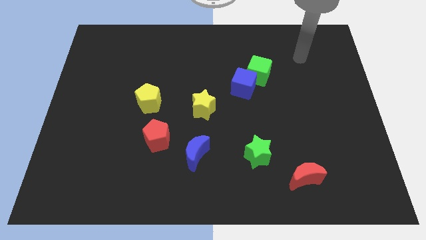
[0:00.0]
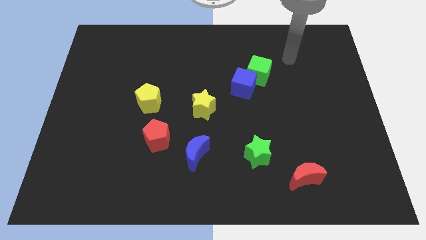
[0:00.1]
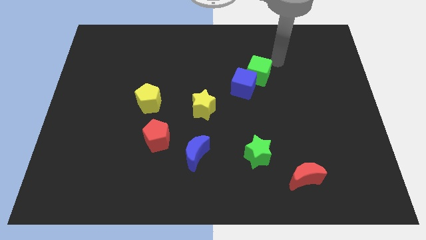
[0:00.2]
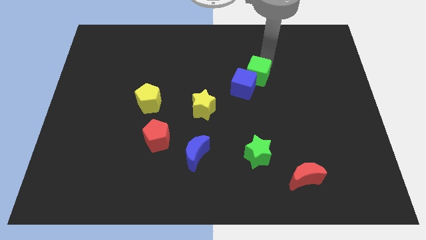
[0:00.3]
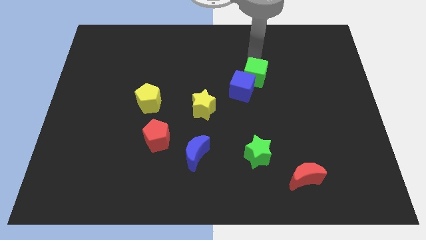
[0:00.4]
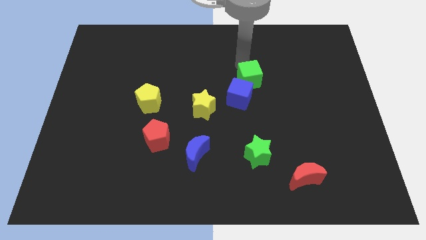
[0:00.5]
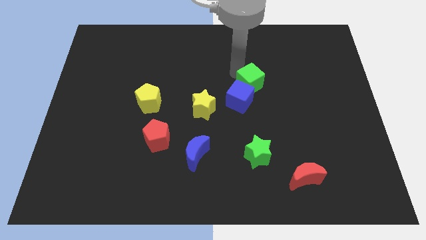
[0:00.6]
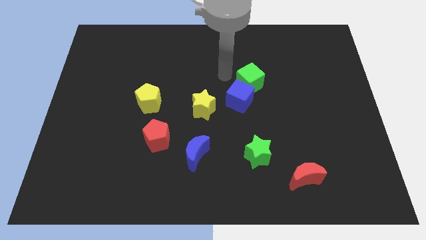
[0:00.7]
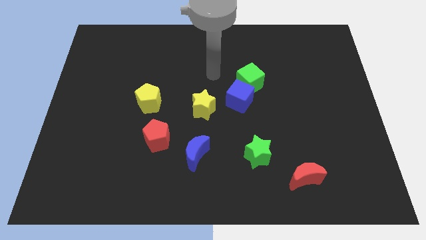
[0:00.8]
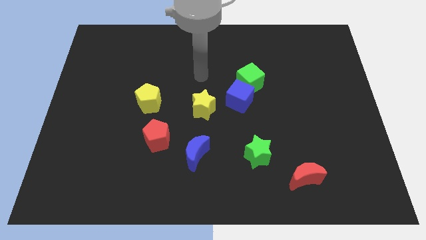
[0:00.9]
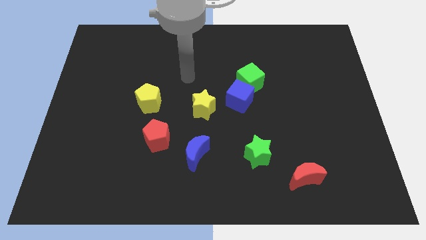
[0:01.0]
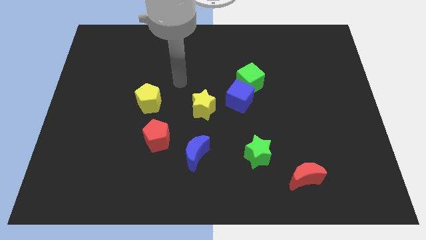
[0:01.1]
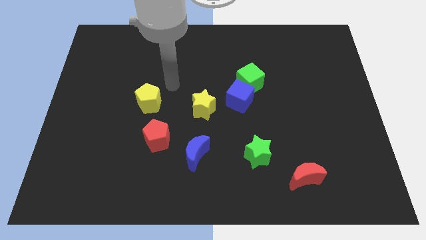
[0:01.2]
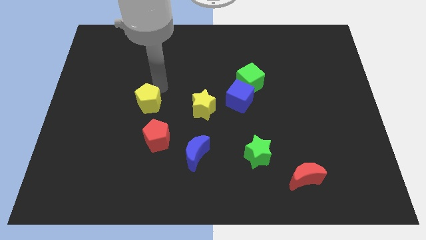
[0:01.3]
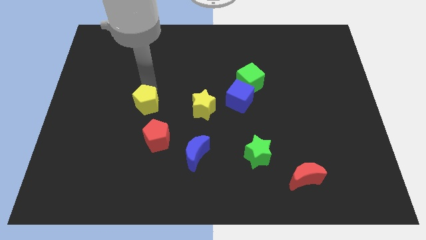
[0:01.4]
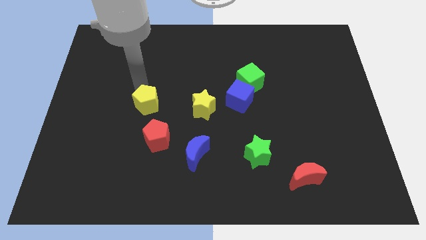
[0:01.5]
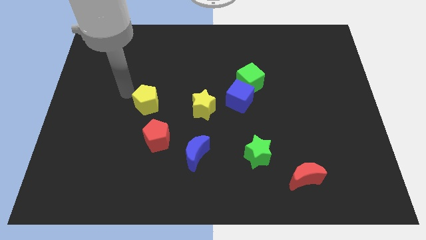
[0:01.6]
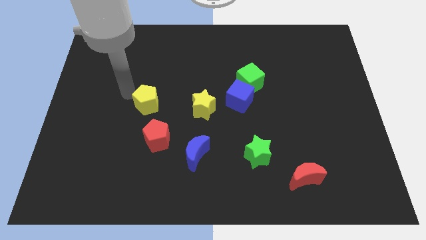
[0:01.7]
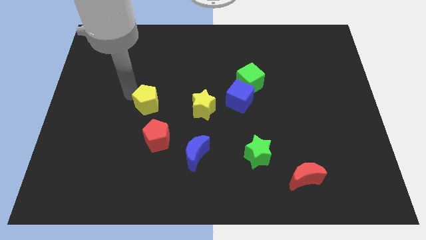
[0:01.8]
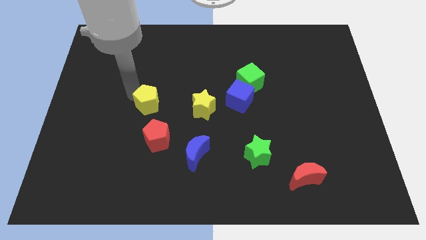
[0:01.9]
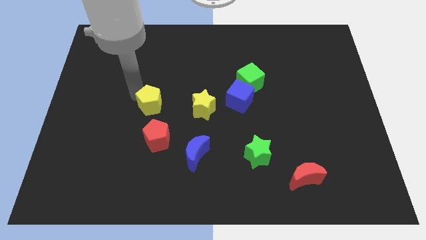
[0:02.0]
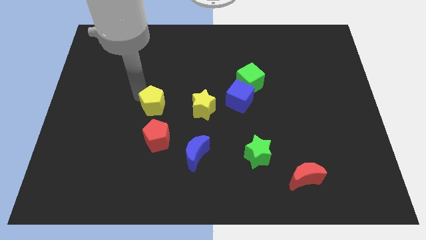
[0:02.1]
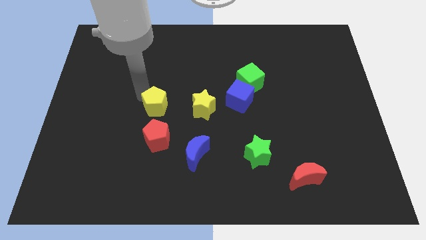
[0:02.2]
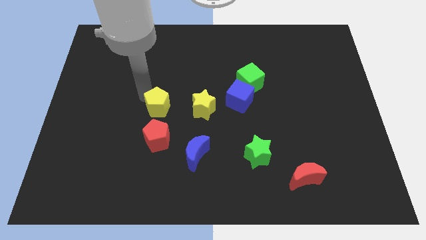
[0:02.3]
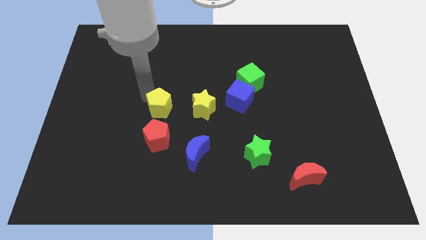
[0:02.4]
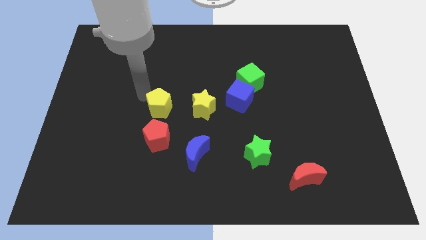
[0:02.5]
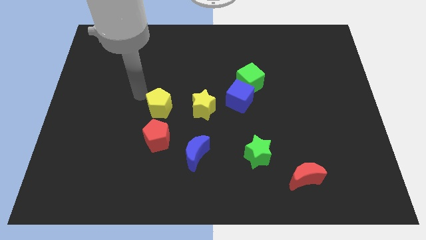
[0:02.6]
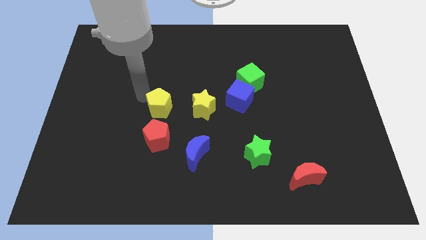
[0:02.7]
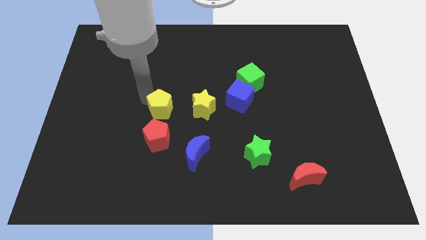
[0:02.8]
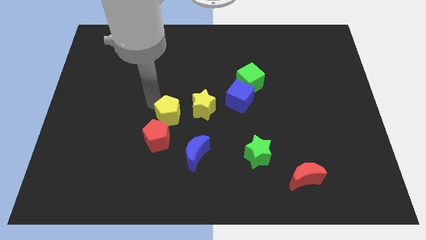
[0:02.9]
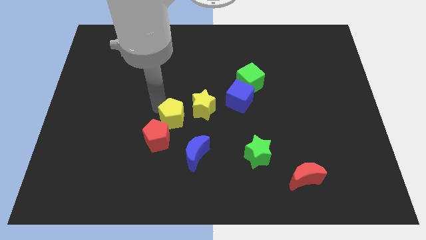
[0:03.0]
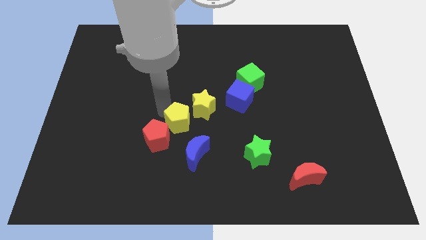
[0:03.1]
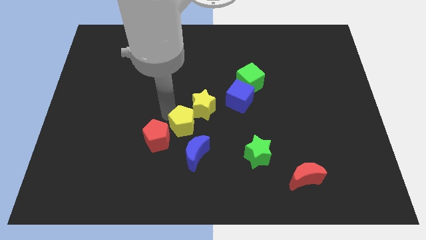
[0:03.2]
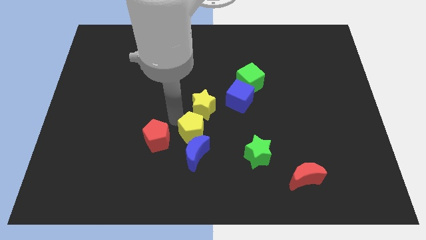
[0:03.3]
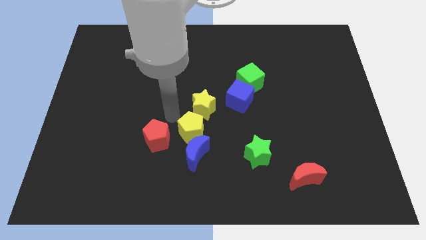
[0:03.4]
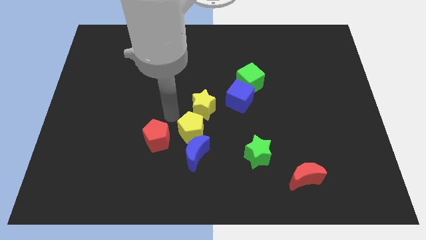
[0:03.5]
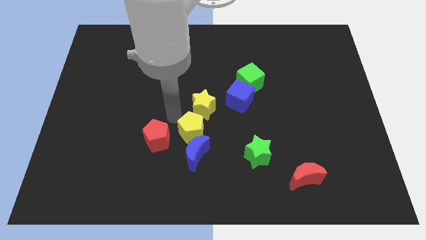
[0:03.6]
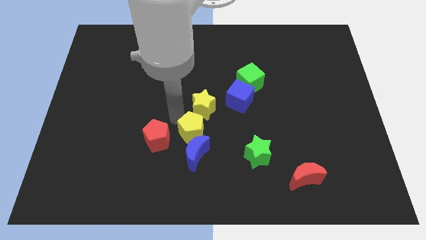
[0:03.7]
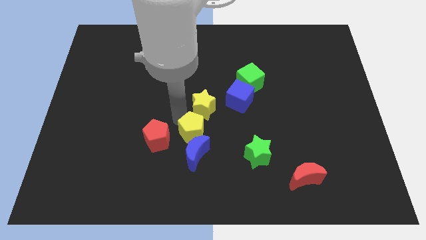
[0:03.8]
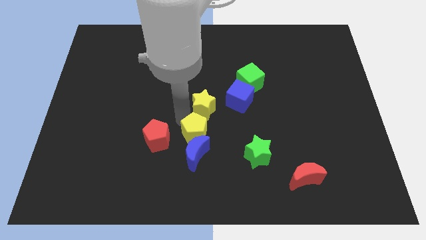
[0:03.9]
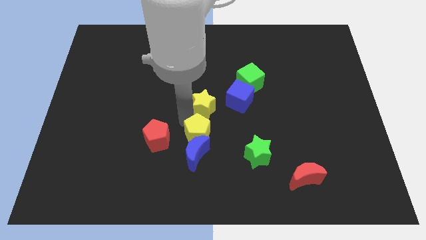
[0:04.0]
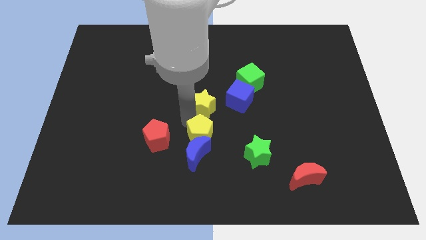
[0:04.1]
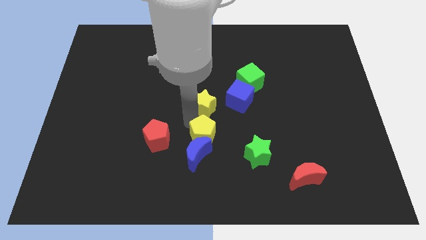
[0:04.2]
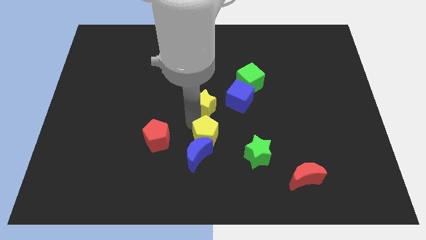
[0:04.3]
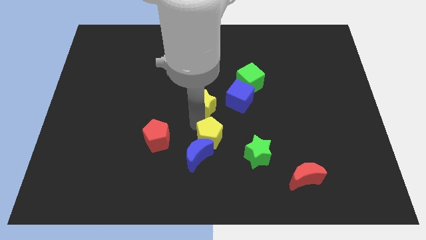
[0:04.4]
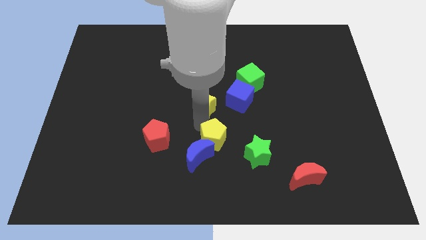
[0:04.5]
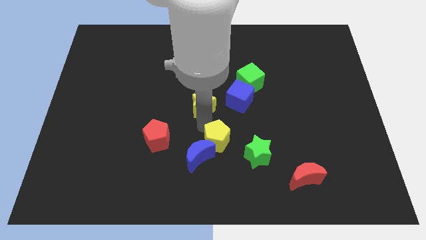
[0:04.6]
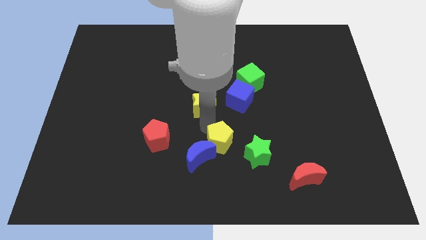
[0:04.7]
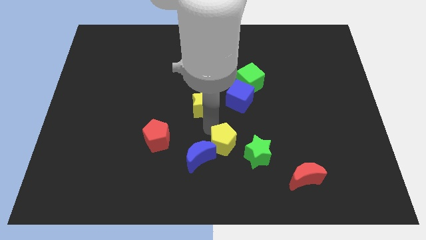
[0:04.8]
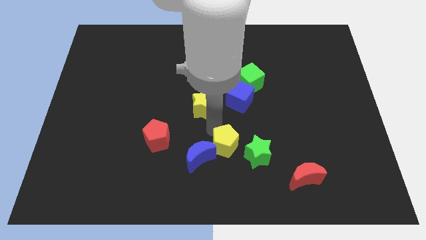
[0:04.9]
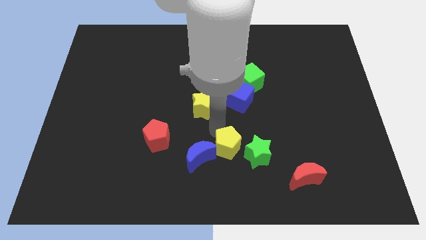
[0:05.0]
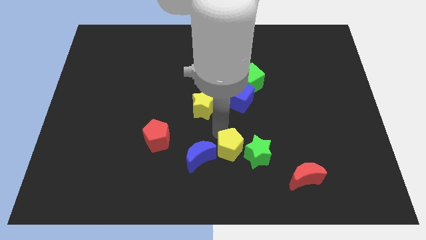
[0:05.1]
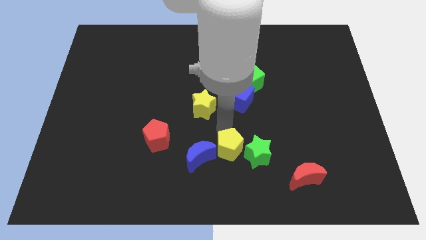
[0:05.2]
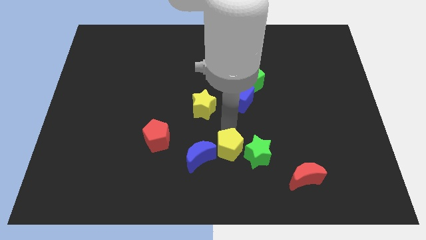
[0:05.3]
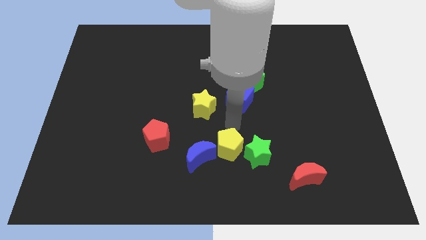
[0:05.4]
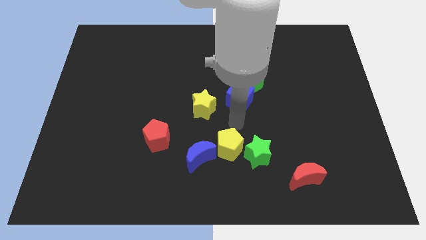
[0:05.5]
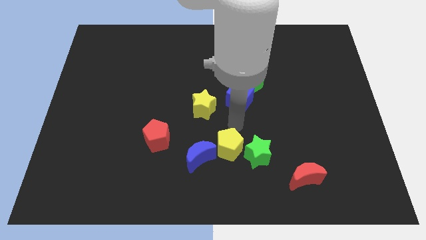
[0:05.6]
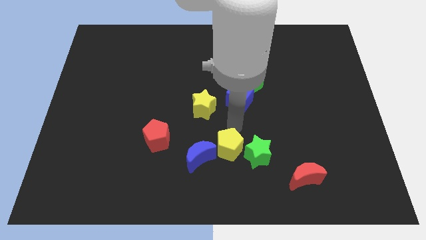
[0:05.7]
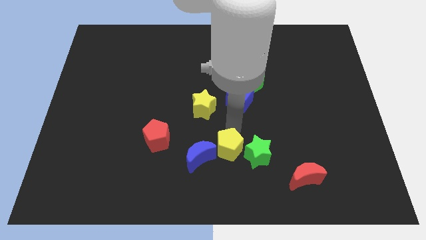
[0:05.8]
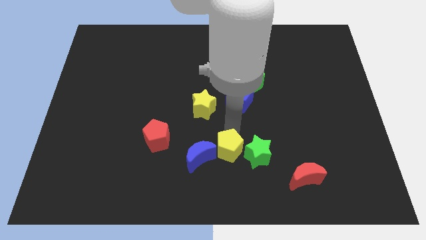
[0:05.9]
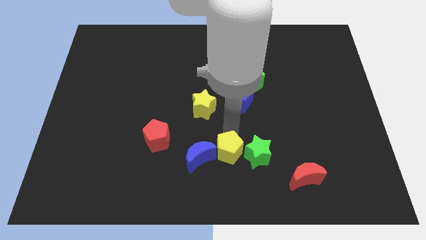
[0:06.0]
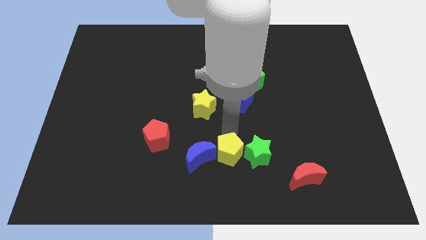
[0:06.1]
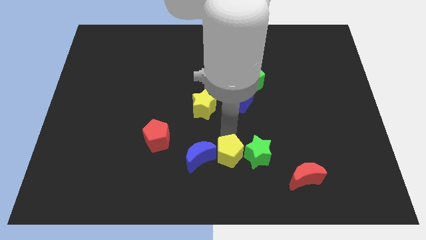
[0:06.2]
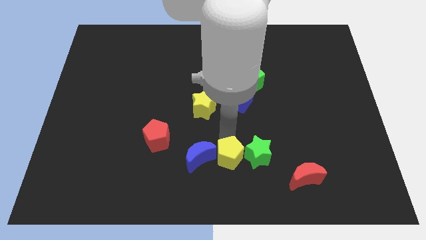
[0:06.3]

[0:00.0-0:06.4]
push the yellow pentagon to the bottom side

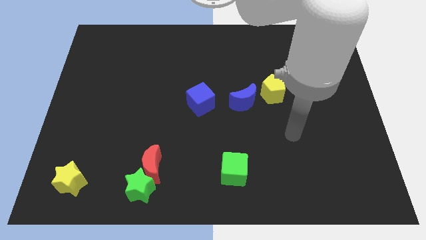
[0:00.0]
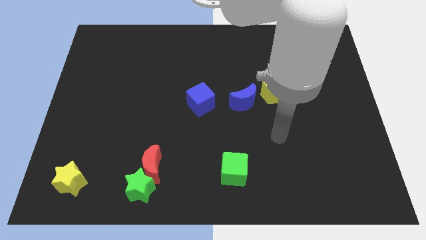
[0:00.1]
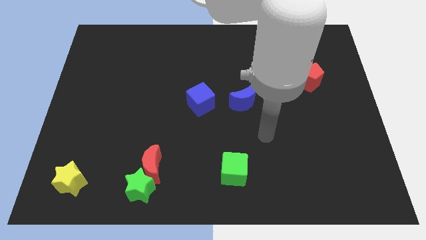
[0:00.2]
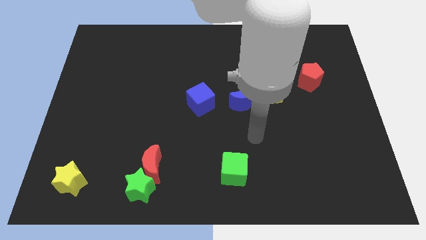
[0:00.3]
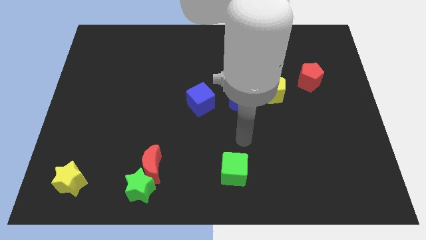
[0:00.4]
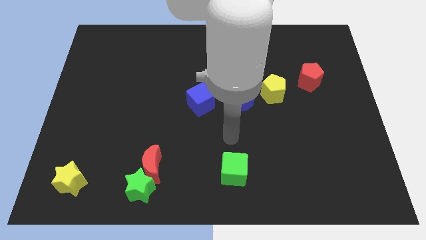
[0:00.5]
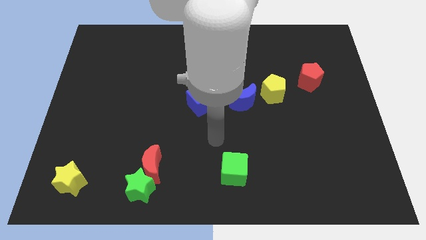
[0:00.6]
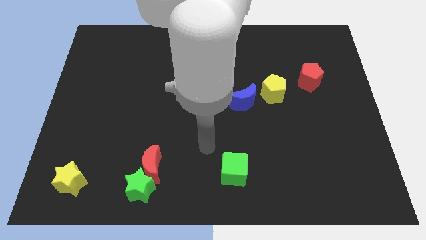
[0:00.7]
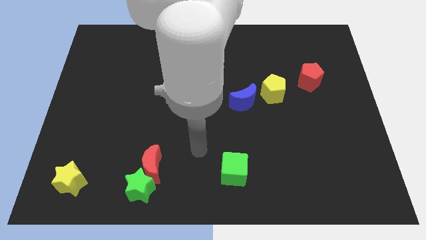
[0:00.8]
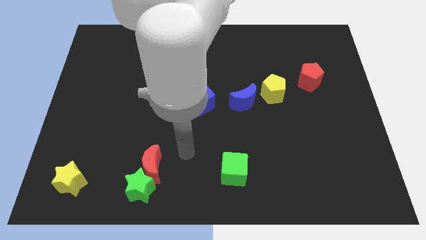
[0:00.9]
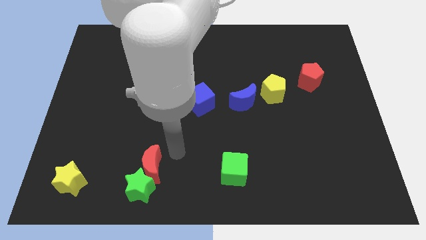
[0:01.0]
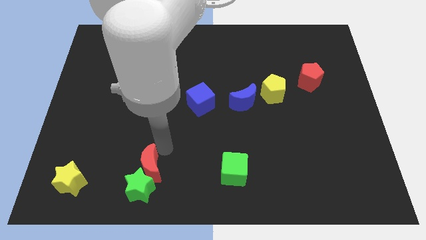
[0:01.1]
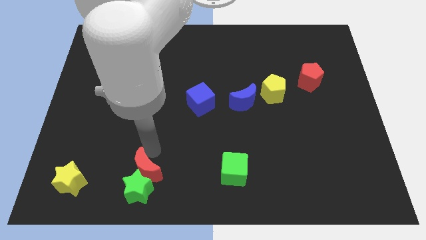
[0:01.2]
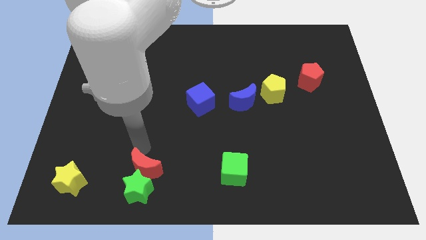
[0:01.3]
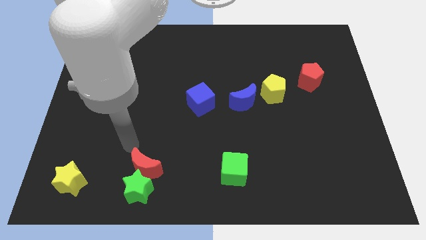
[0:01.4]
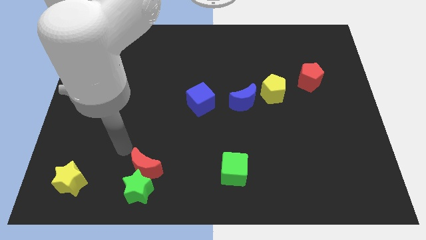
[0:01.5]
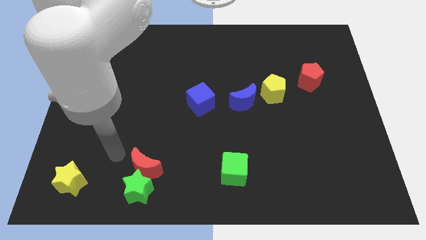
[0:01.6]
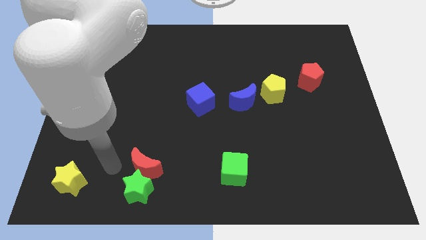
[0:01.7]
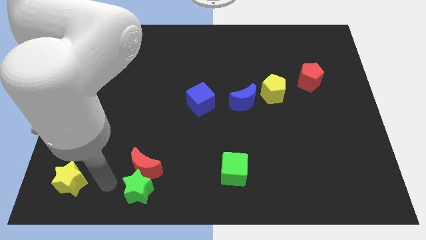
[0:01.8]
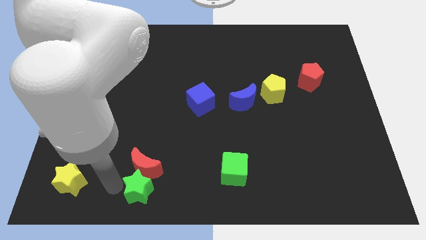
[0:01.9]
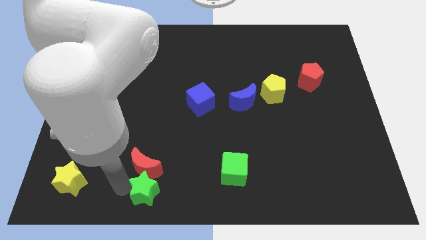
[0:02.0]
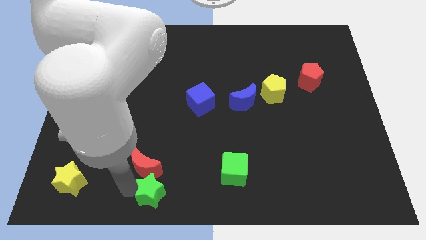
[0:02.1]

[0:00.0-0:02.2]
move the green star to the bottom side
